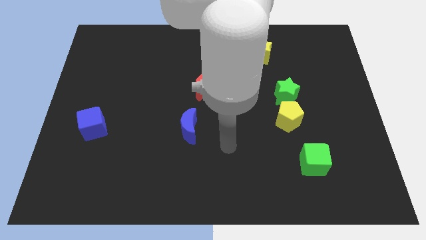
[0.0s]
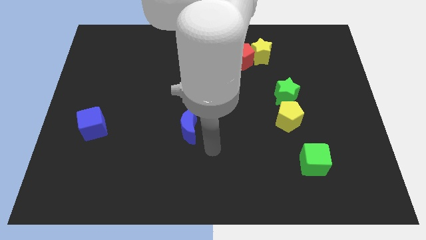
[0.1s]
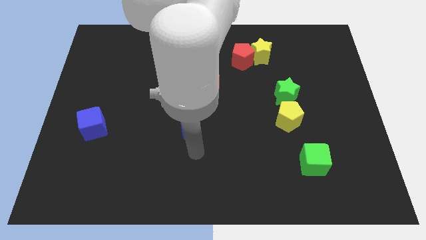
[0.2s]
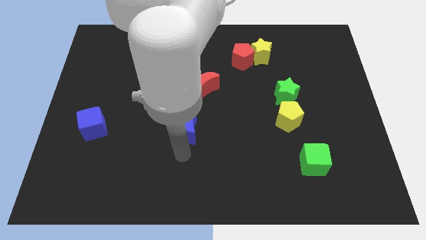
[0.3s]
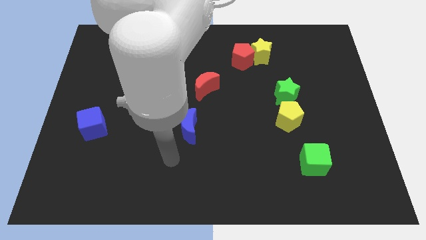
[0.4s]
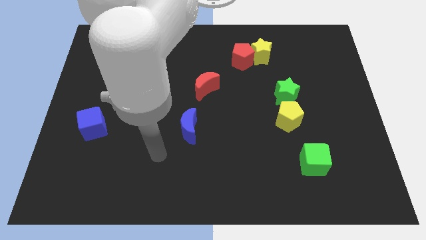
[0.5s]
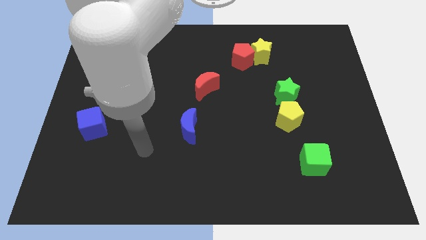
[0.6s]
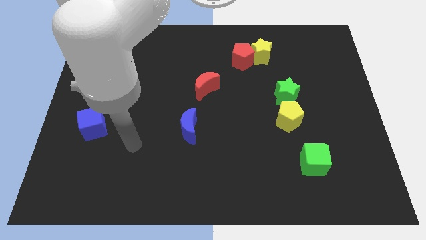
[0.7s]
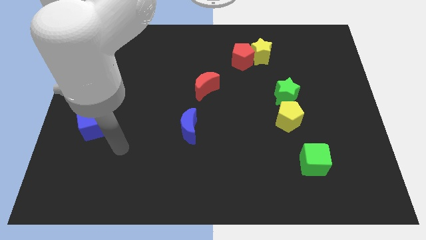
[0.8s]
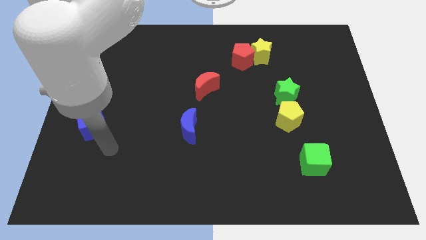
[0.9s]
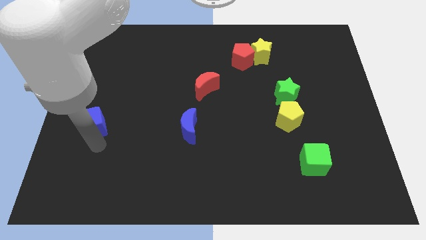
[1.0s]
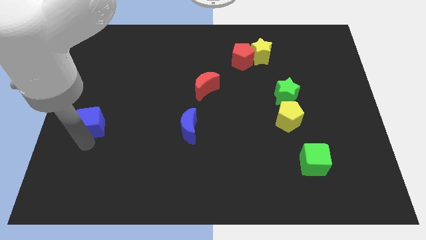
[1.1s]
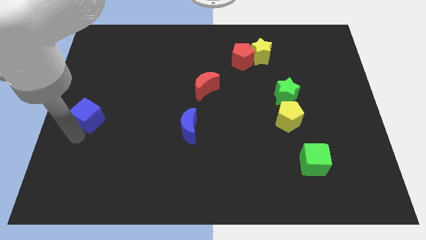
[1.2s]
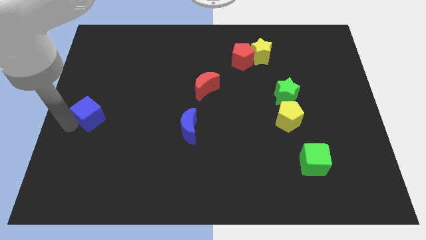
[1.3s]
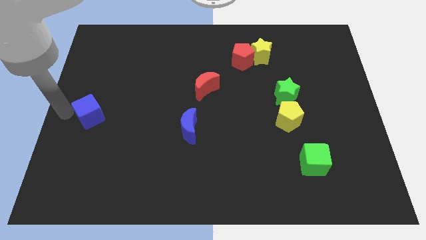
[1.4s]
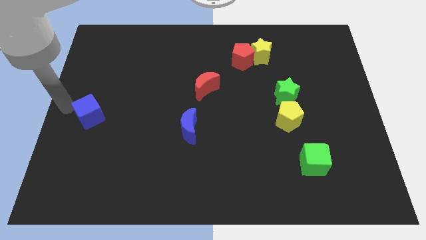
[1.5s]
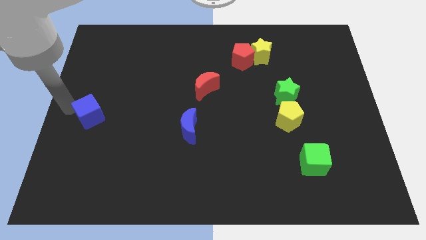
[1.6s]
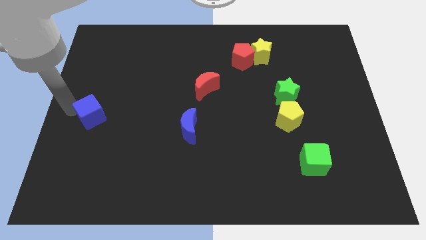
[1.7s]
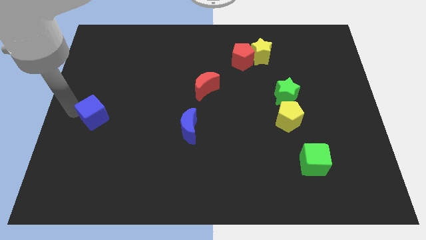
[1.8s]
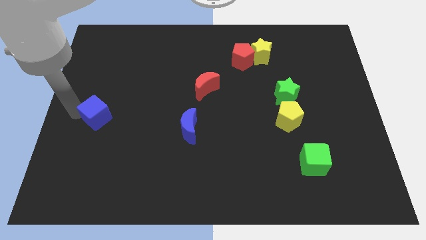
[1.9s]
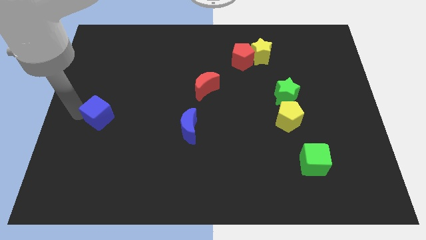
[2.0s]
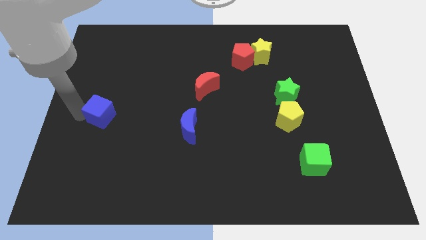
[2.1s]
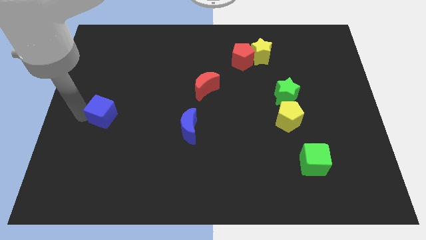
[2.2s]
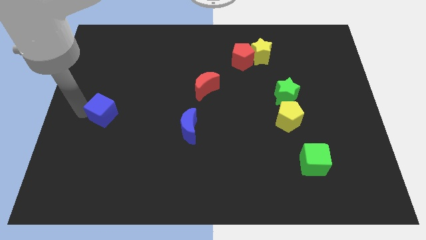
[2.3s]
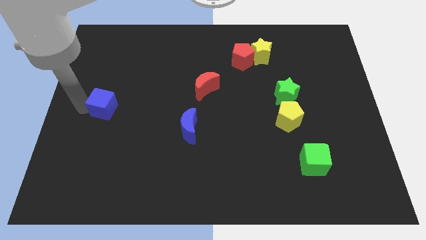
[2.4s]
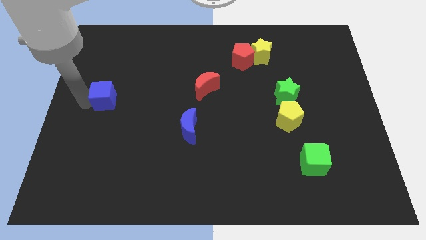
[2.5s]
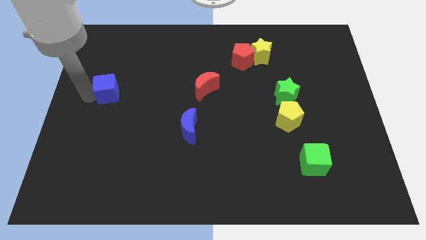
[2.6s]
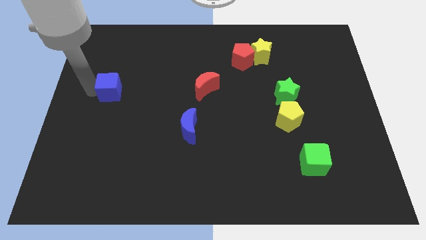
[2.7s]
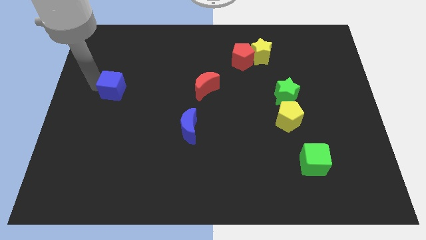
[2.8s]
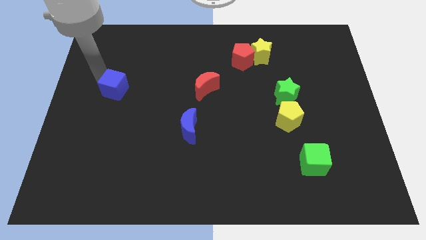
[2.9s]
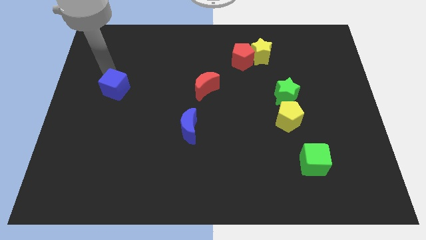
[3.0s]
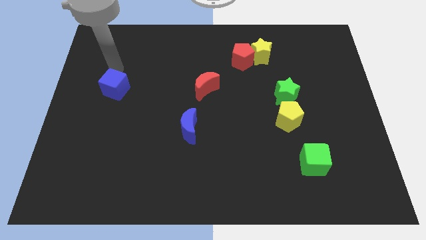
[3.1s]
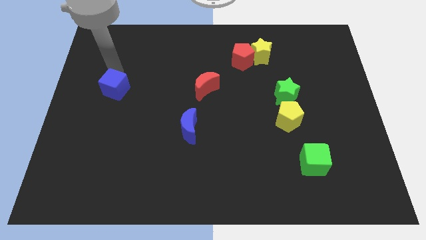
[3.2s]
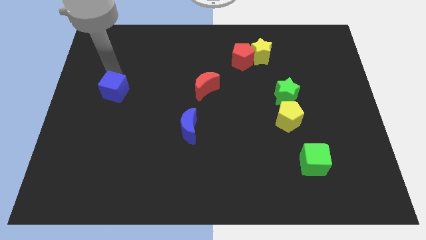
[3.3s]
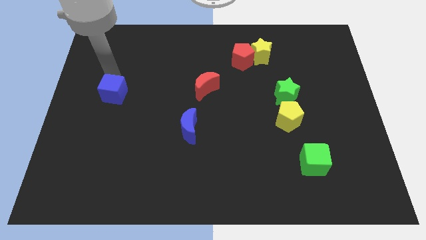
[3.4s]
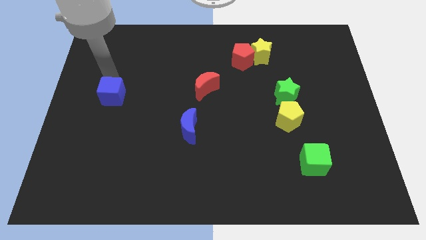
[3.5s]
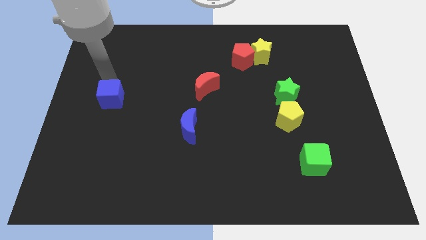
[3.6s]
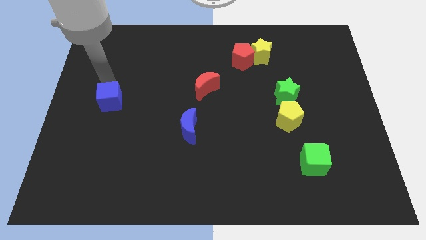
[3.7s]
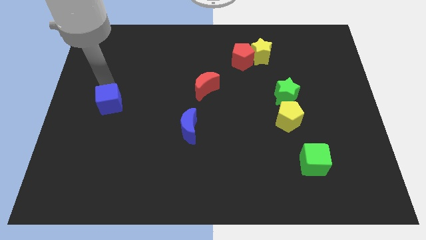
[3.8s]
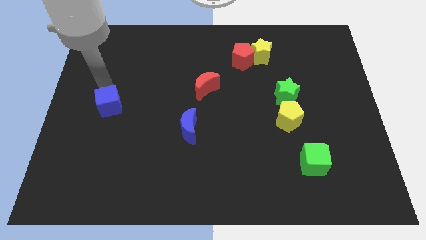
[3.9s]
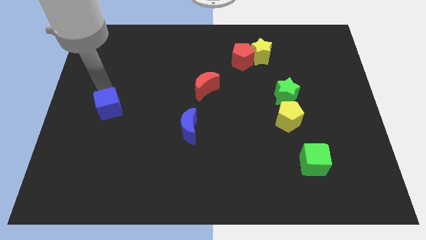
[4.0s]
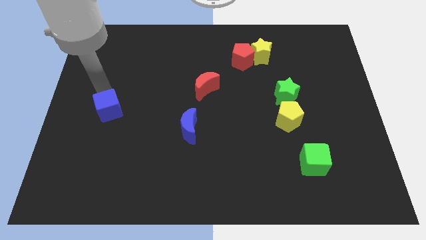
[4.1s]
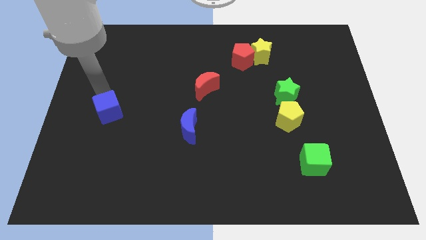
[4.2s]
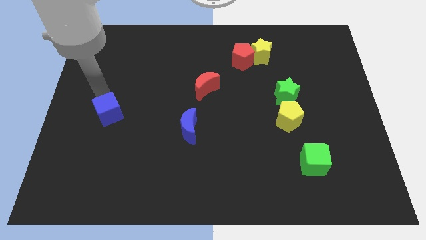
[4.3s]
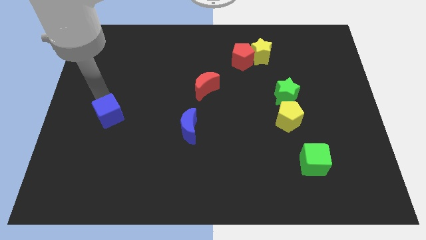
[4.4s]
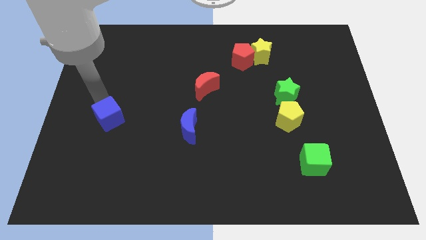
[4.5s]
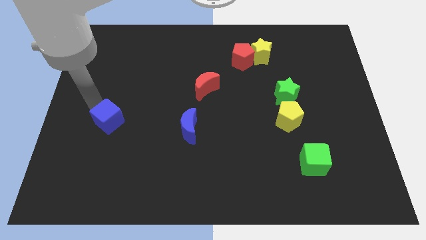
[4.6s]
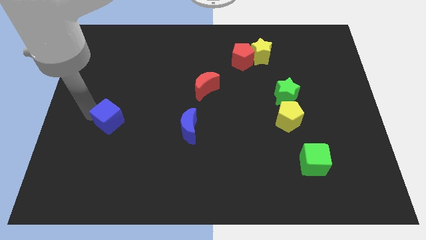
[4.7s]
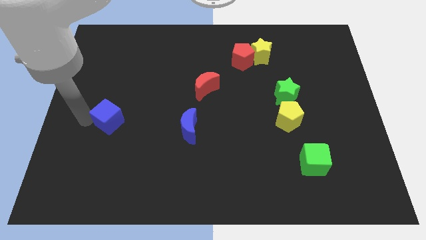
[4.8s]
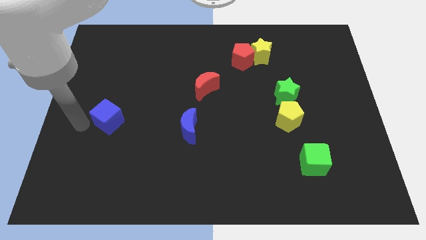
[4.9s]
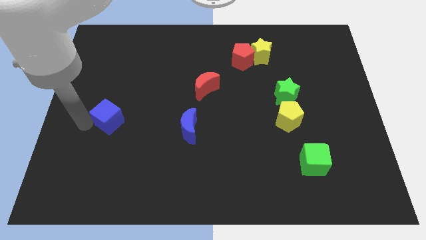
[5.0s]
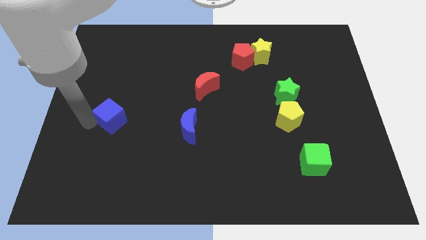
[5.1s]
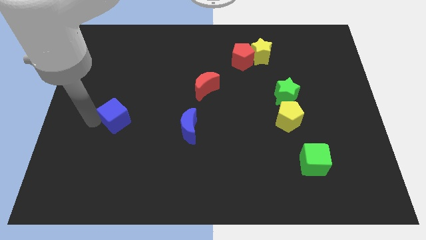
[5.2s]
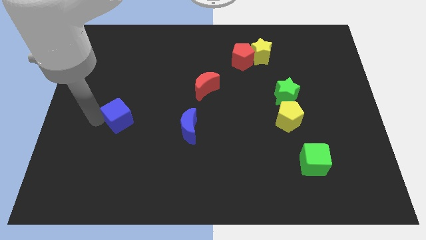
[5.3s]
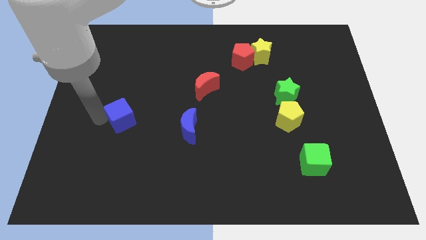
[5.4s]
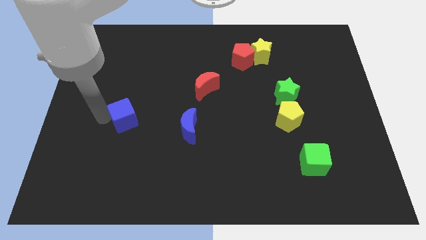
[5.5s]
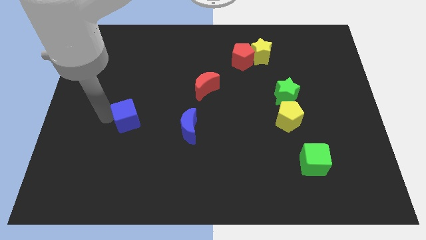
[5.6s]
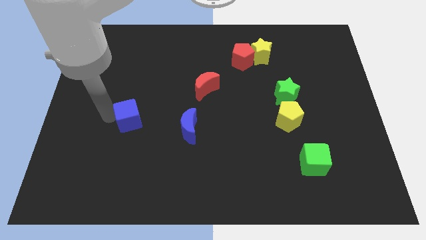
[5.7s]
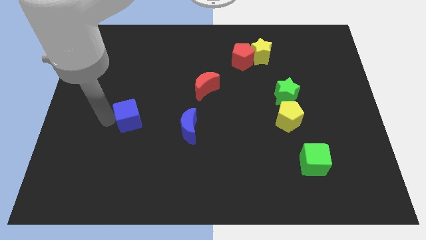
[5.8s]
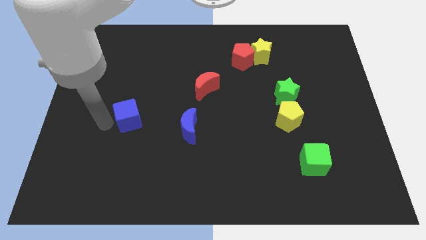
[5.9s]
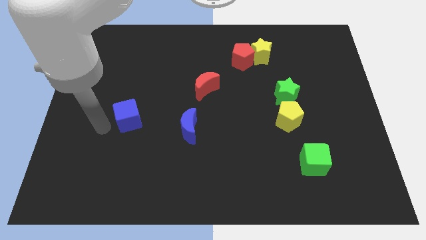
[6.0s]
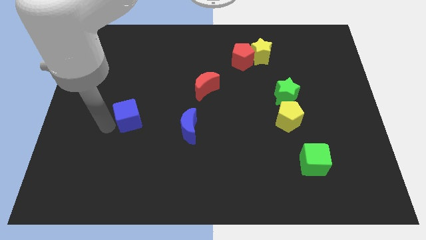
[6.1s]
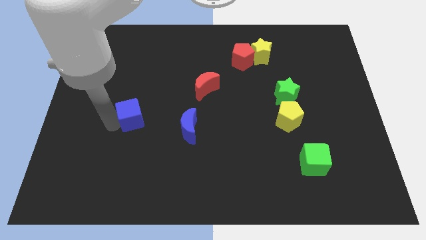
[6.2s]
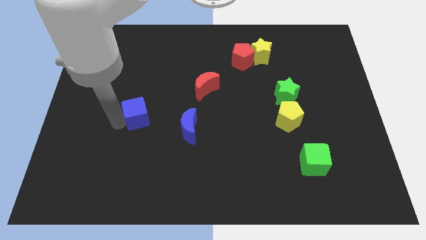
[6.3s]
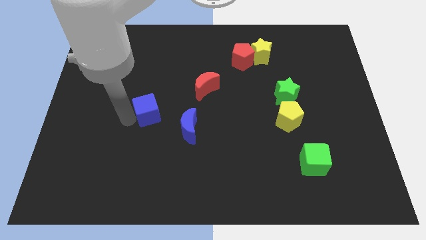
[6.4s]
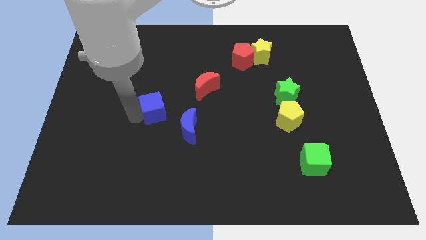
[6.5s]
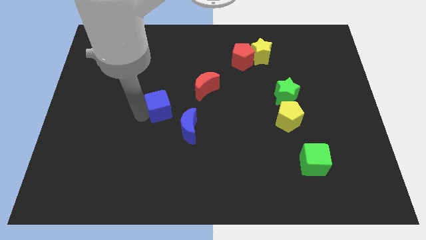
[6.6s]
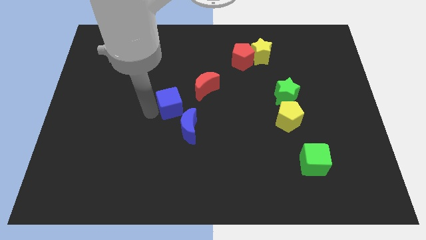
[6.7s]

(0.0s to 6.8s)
put the blue cube to the middle
